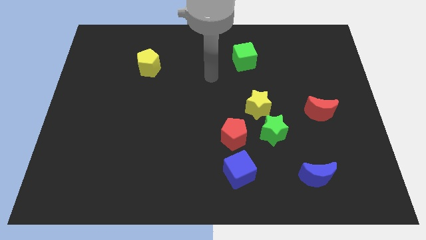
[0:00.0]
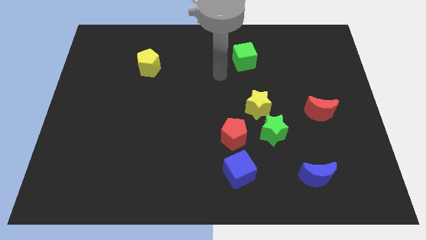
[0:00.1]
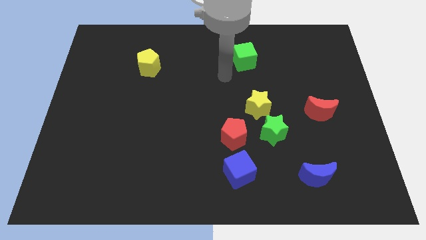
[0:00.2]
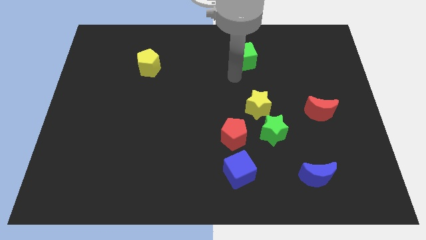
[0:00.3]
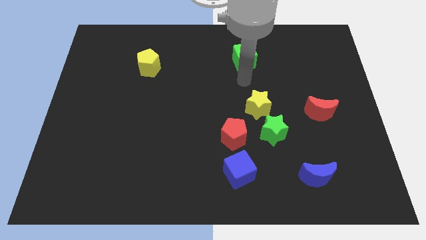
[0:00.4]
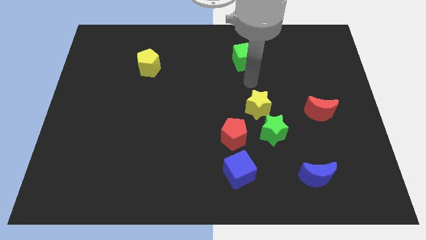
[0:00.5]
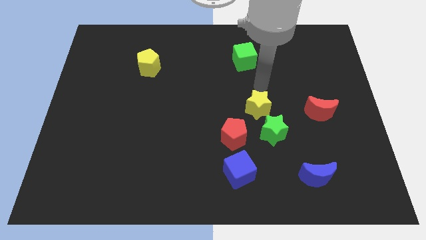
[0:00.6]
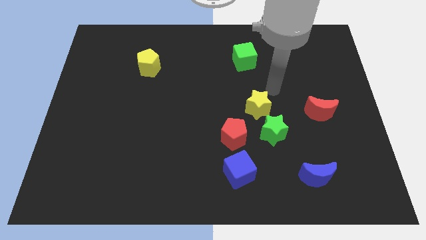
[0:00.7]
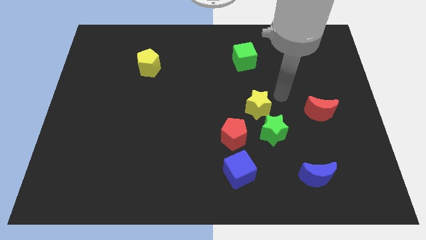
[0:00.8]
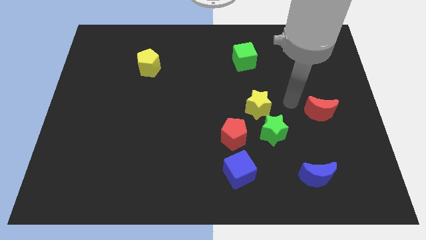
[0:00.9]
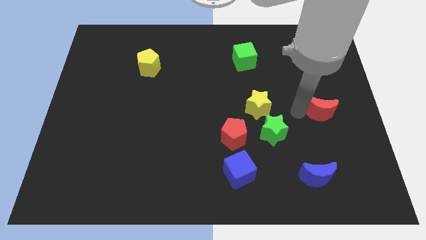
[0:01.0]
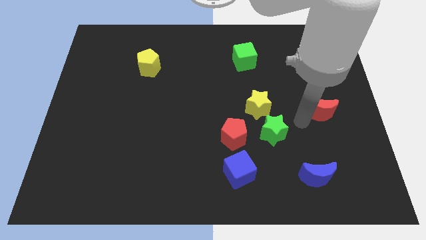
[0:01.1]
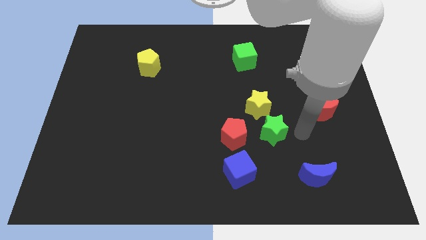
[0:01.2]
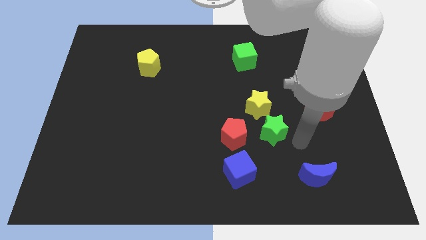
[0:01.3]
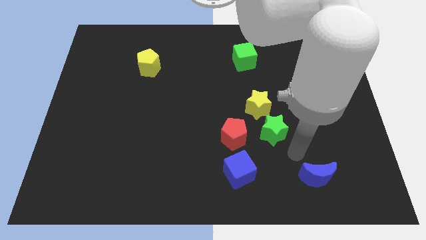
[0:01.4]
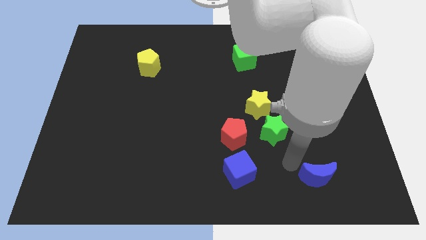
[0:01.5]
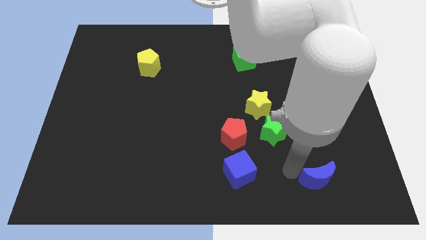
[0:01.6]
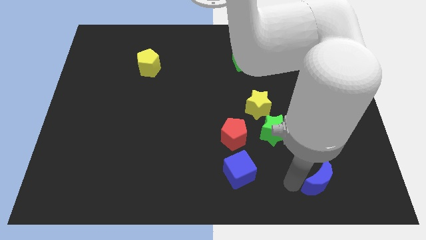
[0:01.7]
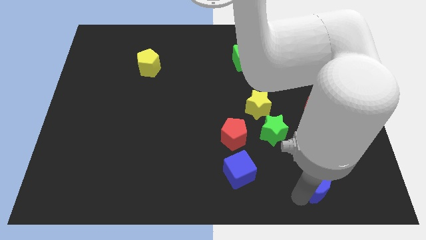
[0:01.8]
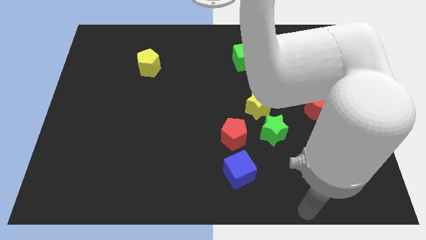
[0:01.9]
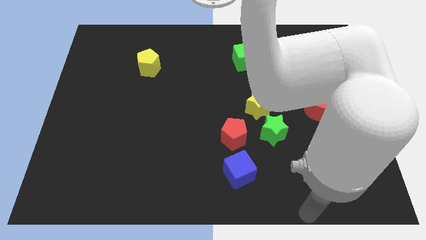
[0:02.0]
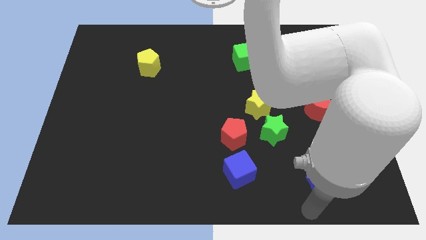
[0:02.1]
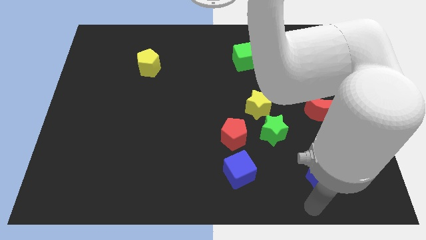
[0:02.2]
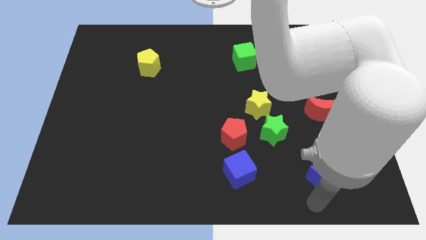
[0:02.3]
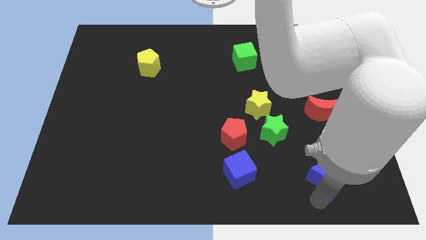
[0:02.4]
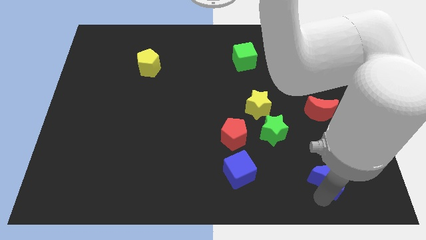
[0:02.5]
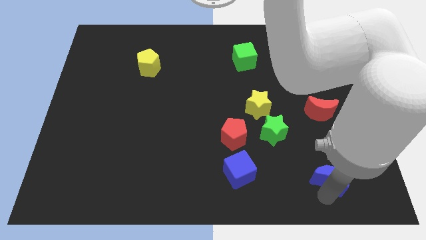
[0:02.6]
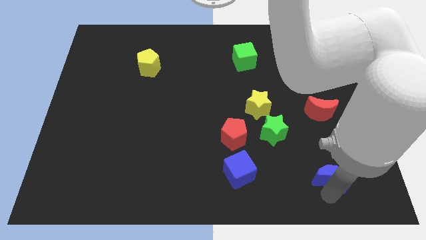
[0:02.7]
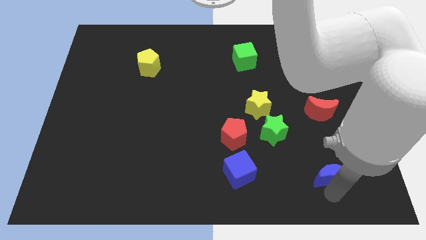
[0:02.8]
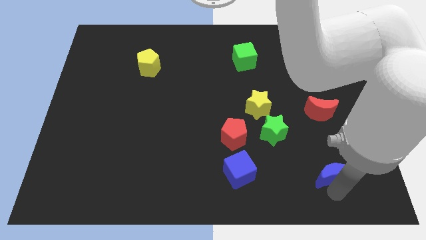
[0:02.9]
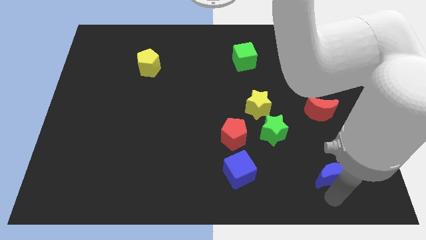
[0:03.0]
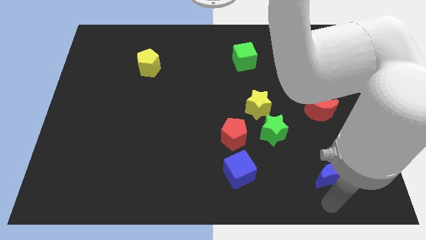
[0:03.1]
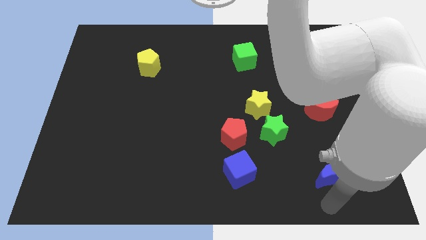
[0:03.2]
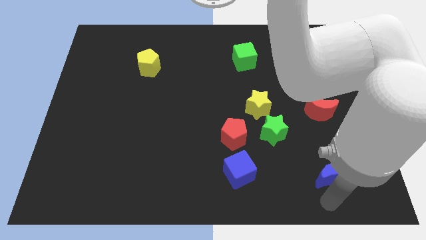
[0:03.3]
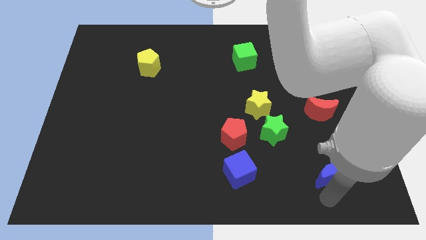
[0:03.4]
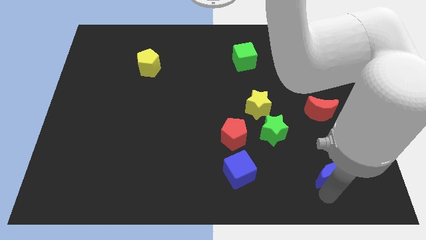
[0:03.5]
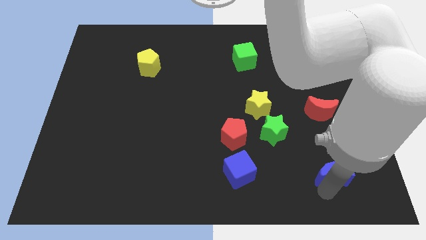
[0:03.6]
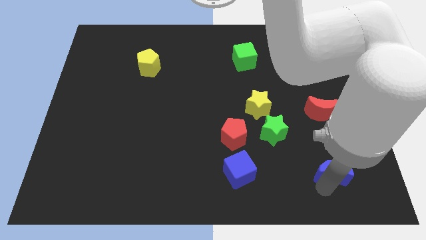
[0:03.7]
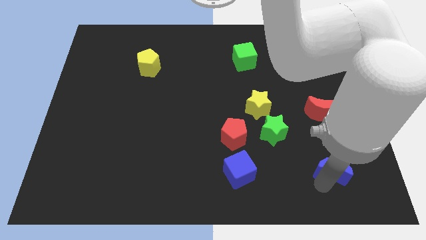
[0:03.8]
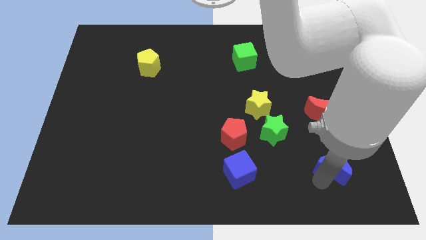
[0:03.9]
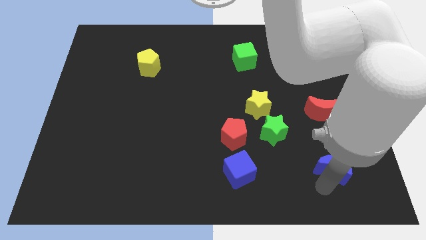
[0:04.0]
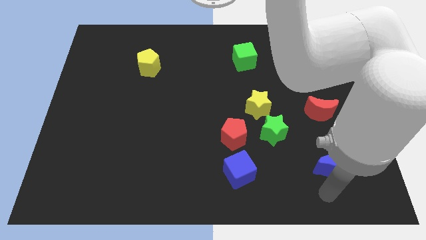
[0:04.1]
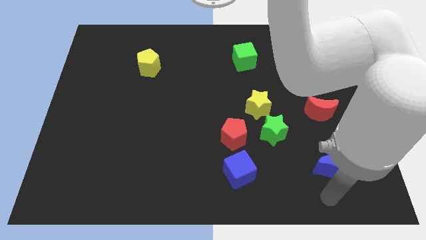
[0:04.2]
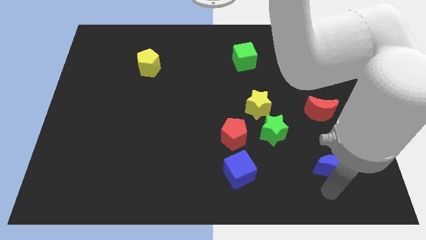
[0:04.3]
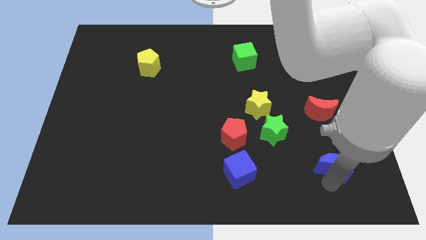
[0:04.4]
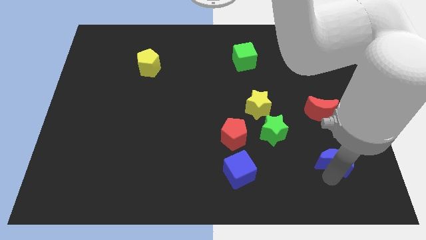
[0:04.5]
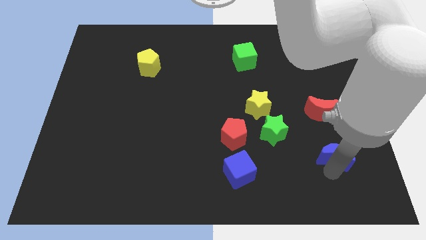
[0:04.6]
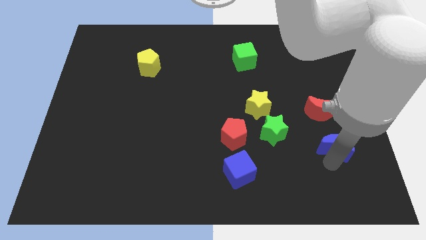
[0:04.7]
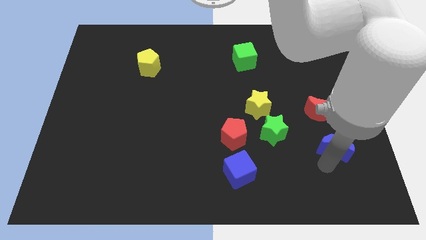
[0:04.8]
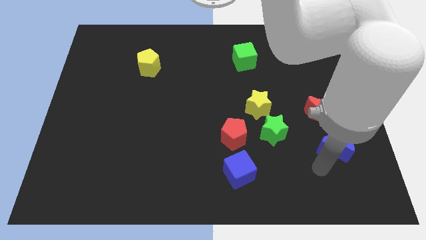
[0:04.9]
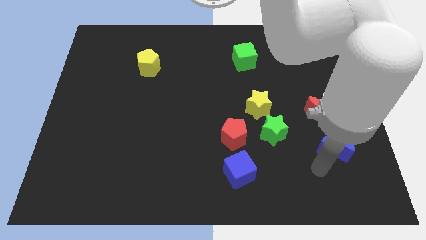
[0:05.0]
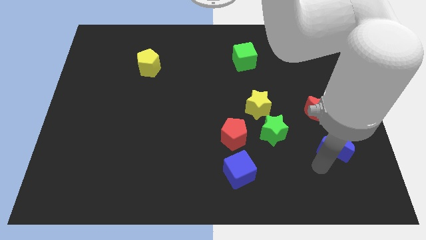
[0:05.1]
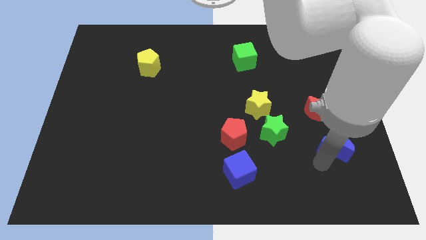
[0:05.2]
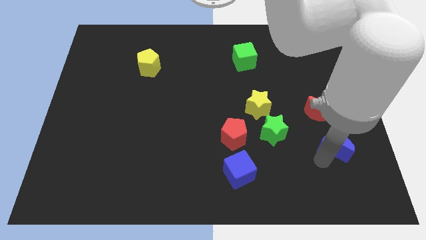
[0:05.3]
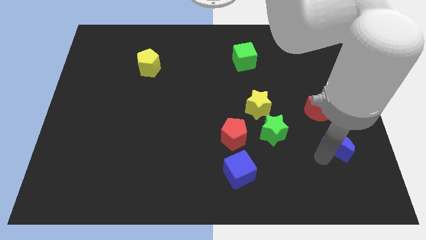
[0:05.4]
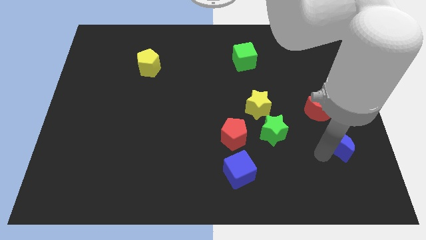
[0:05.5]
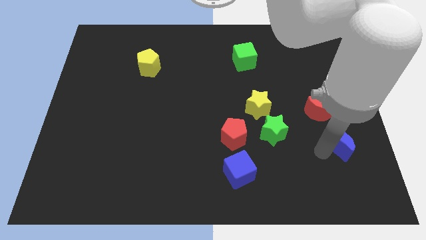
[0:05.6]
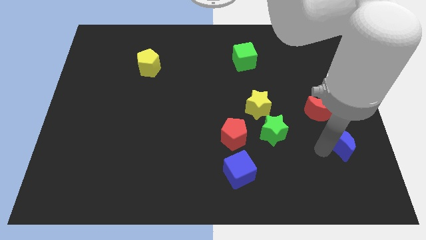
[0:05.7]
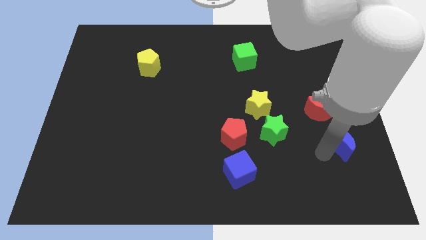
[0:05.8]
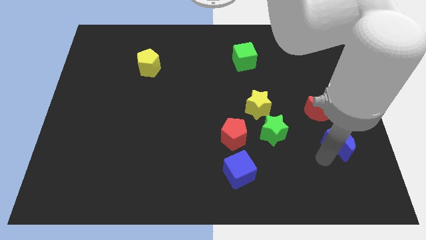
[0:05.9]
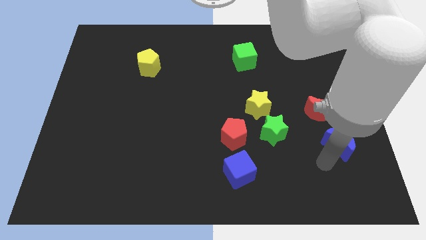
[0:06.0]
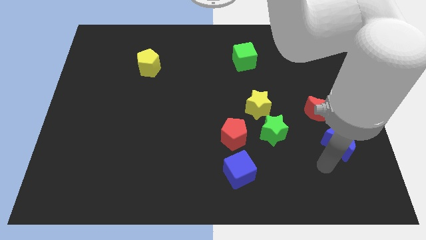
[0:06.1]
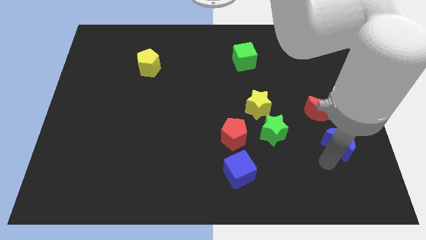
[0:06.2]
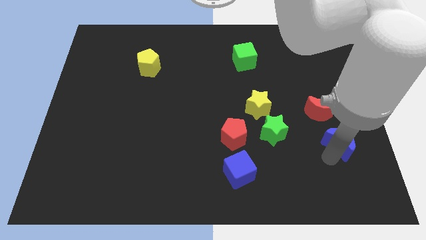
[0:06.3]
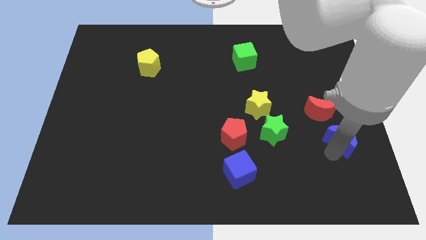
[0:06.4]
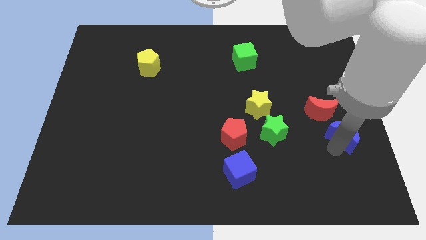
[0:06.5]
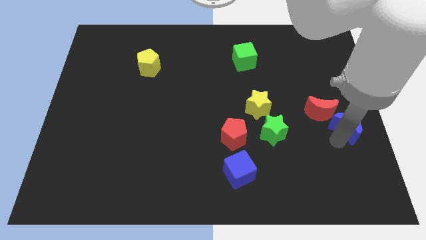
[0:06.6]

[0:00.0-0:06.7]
slide the blue moon to the right side of the board

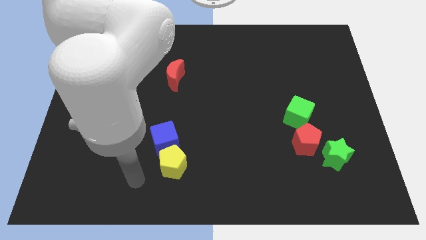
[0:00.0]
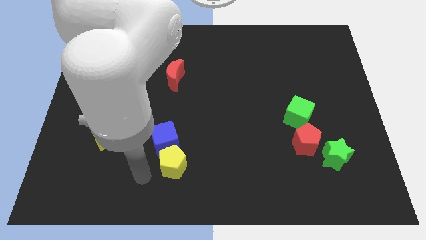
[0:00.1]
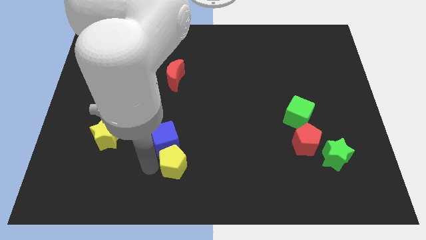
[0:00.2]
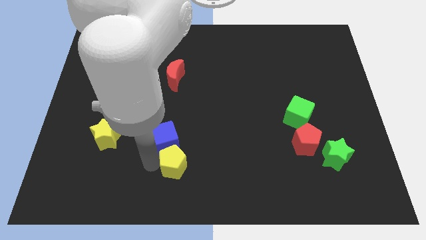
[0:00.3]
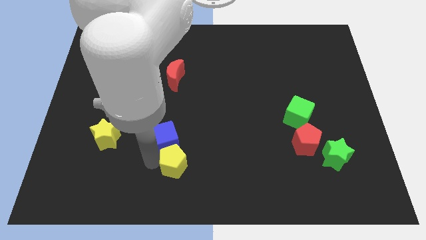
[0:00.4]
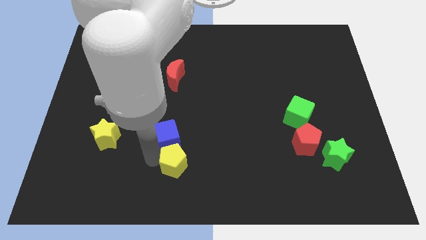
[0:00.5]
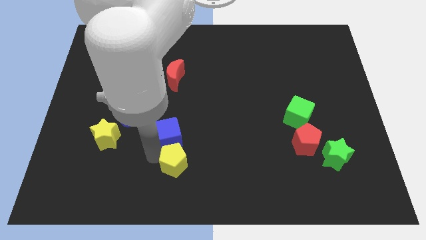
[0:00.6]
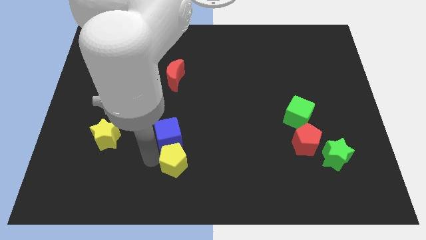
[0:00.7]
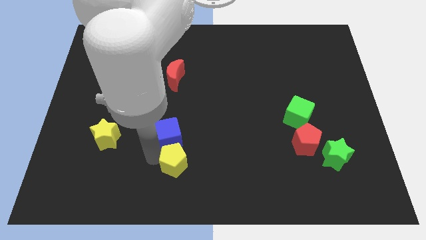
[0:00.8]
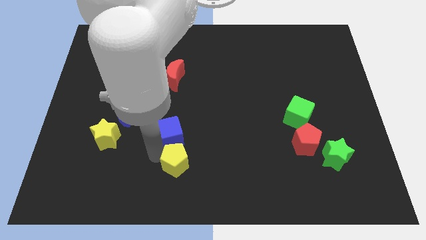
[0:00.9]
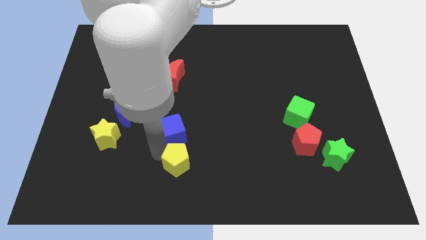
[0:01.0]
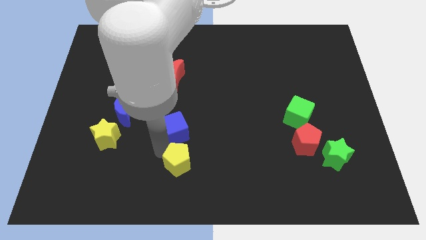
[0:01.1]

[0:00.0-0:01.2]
move the blue cube to the center
